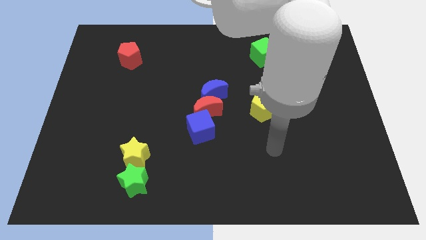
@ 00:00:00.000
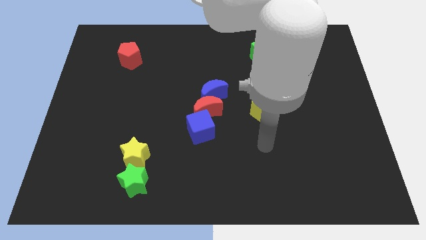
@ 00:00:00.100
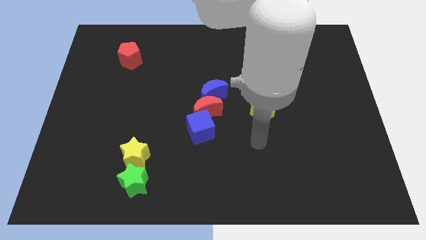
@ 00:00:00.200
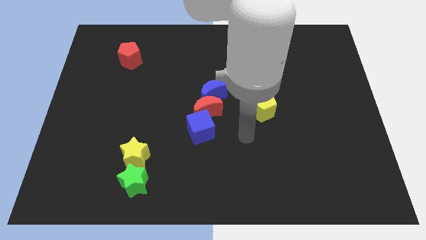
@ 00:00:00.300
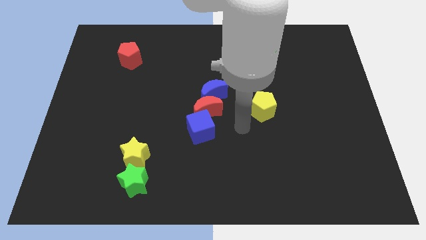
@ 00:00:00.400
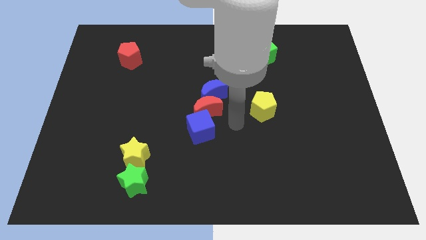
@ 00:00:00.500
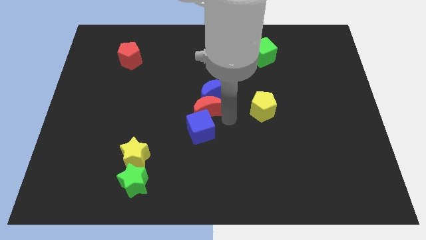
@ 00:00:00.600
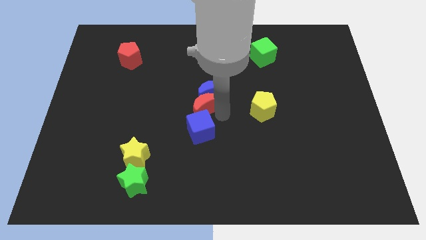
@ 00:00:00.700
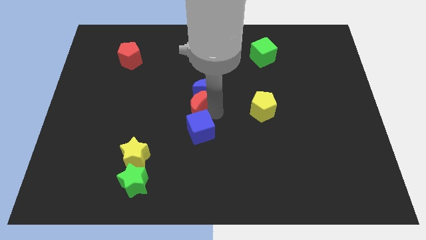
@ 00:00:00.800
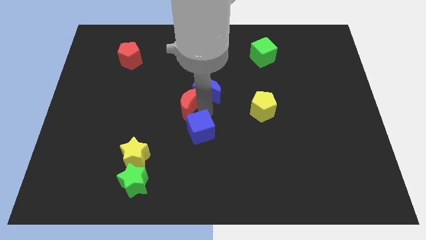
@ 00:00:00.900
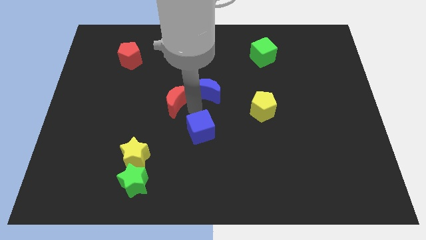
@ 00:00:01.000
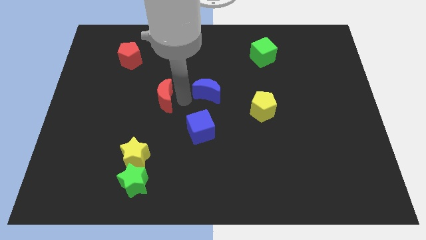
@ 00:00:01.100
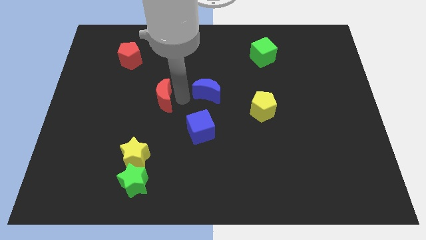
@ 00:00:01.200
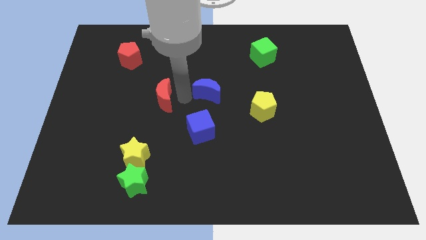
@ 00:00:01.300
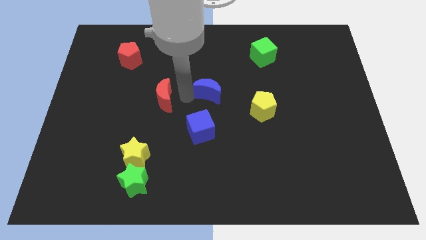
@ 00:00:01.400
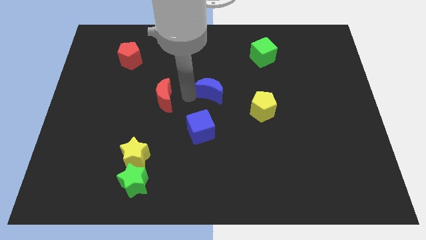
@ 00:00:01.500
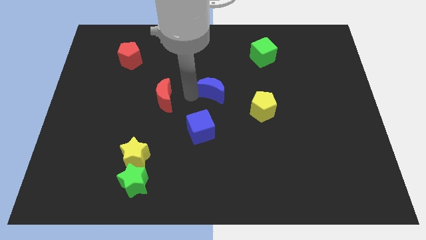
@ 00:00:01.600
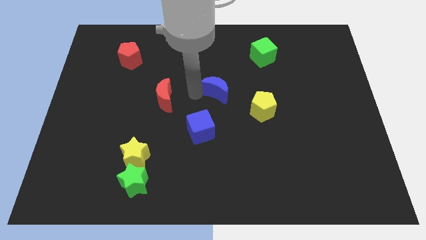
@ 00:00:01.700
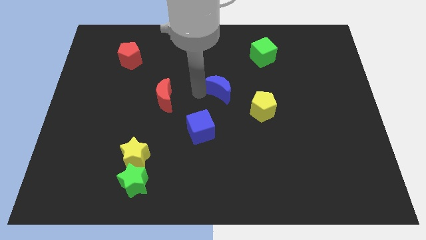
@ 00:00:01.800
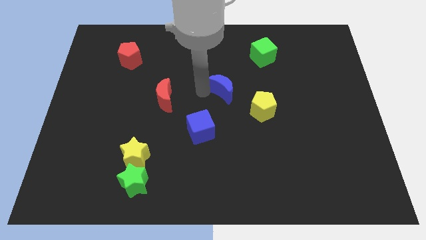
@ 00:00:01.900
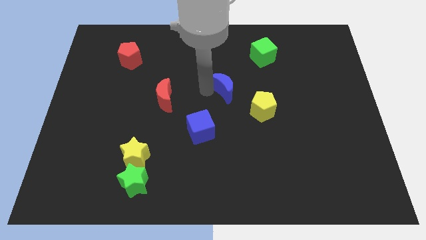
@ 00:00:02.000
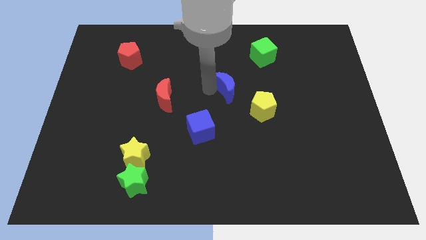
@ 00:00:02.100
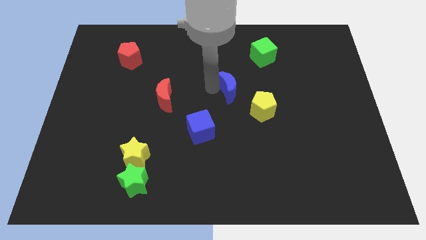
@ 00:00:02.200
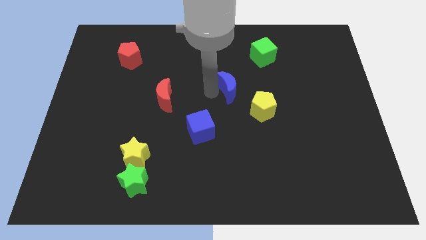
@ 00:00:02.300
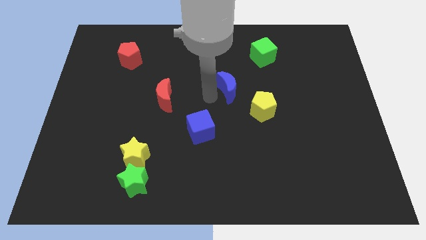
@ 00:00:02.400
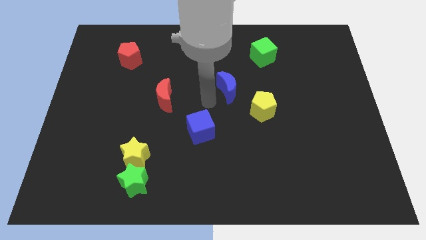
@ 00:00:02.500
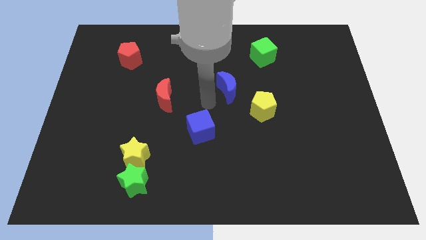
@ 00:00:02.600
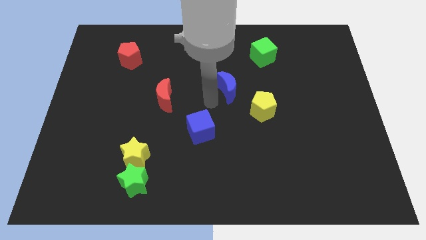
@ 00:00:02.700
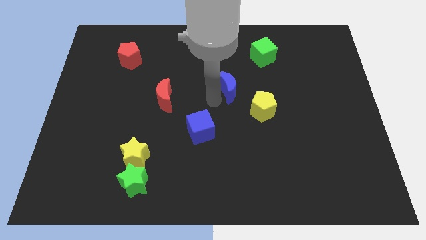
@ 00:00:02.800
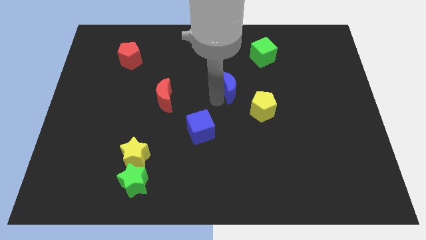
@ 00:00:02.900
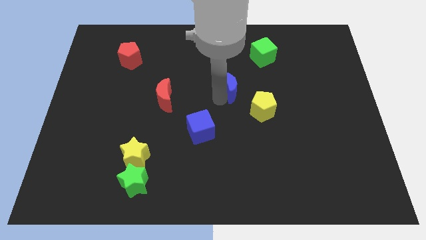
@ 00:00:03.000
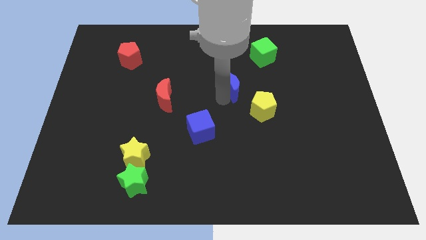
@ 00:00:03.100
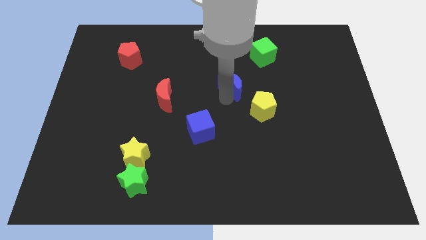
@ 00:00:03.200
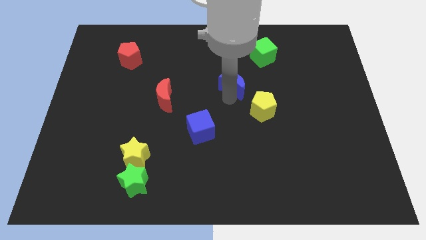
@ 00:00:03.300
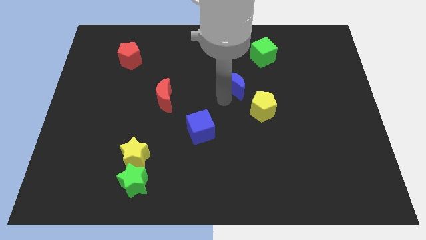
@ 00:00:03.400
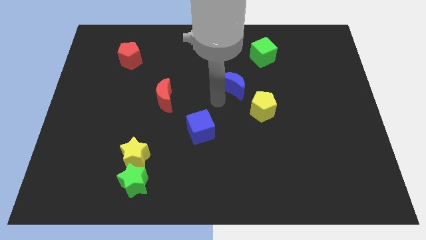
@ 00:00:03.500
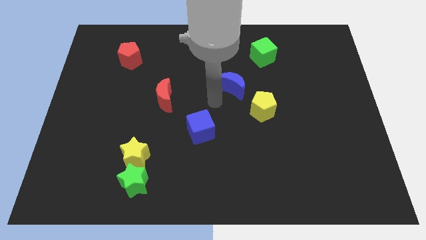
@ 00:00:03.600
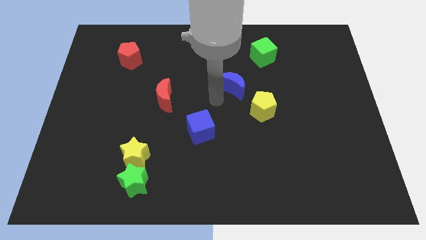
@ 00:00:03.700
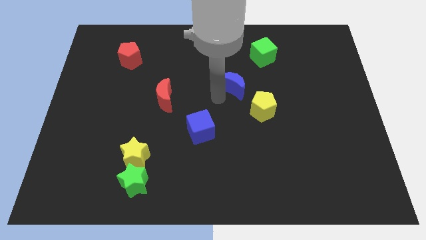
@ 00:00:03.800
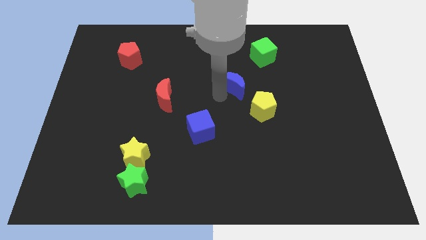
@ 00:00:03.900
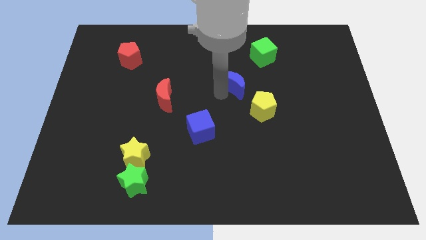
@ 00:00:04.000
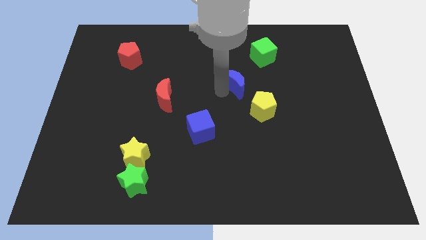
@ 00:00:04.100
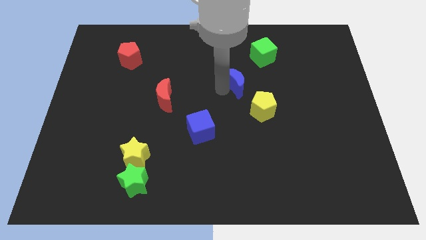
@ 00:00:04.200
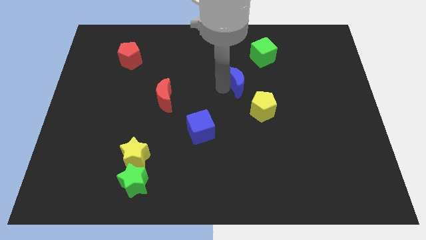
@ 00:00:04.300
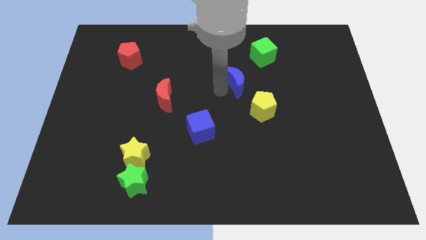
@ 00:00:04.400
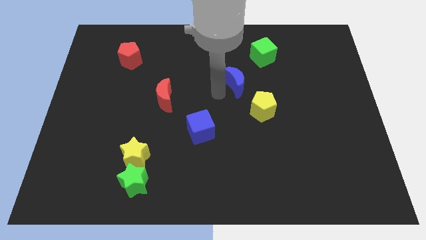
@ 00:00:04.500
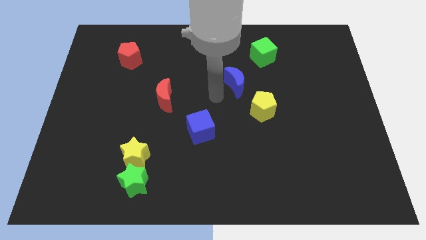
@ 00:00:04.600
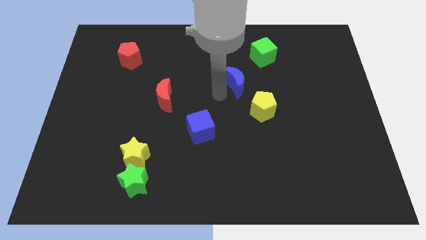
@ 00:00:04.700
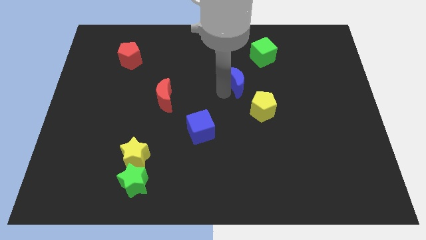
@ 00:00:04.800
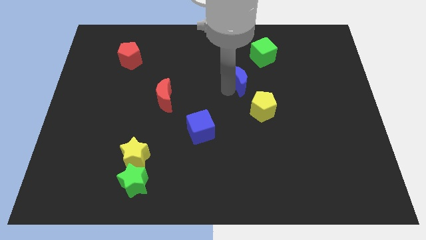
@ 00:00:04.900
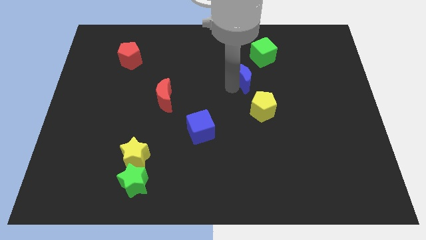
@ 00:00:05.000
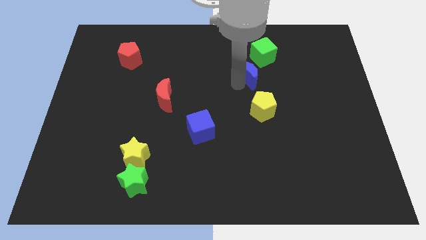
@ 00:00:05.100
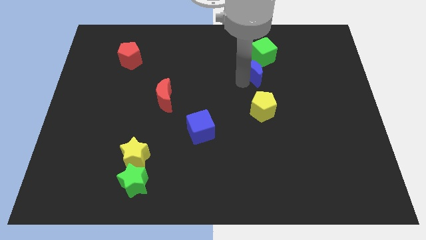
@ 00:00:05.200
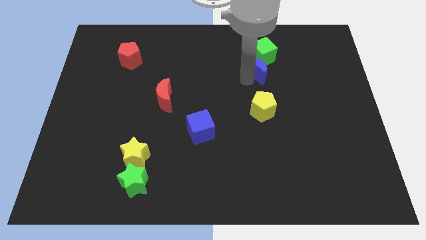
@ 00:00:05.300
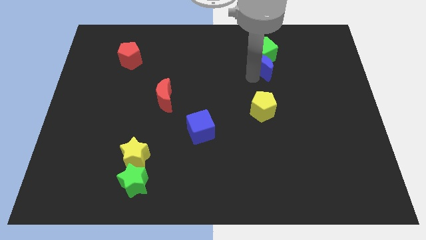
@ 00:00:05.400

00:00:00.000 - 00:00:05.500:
push the blue moon towards the green cube

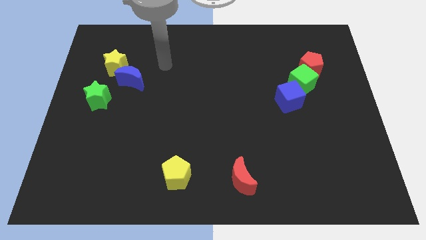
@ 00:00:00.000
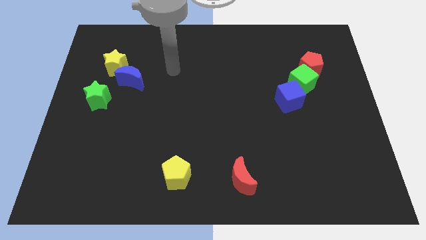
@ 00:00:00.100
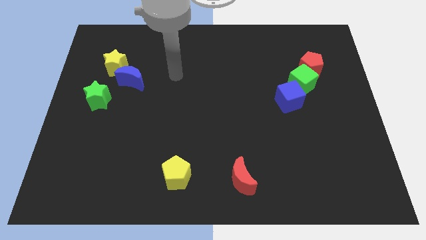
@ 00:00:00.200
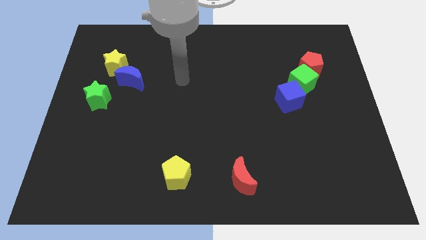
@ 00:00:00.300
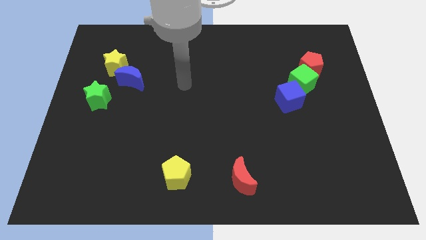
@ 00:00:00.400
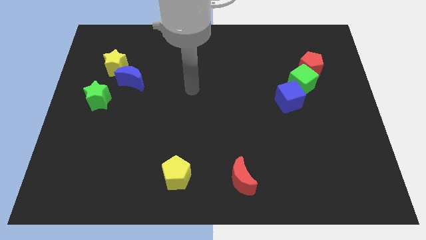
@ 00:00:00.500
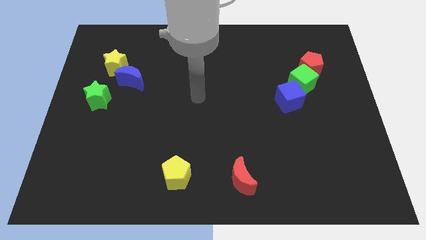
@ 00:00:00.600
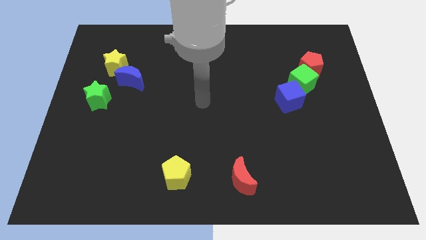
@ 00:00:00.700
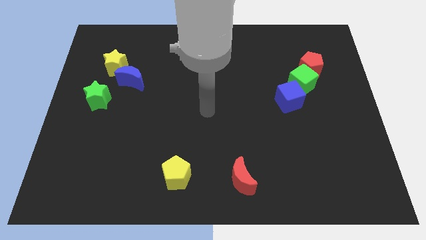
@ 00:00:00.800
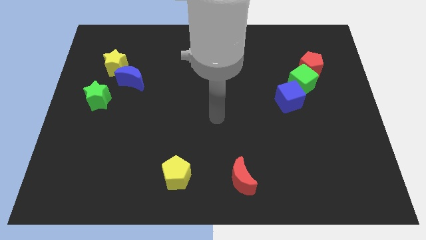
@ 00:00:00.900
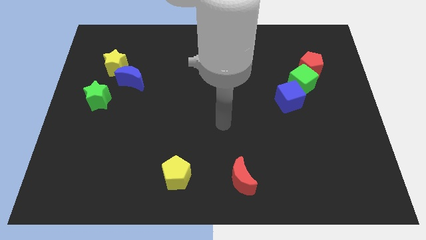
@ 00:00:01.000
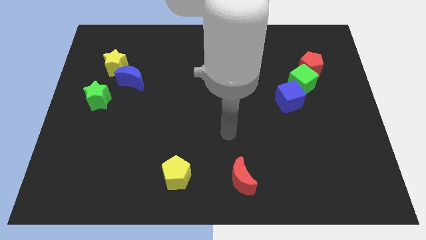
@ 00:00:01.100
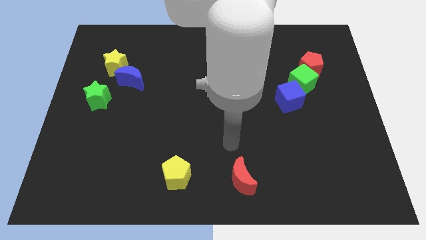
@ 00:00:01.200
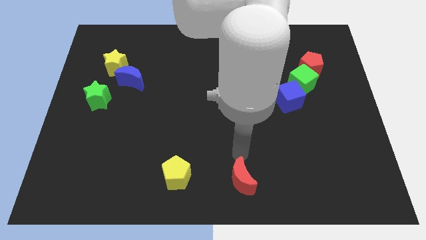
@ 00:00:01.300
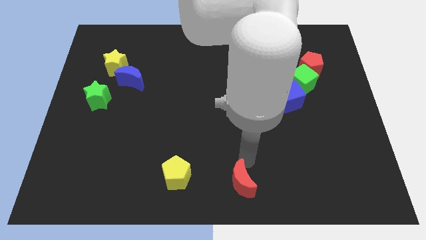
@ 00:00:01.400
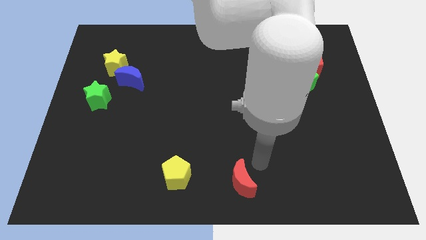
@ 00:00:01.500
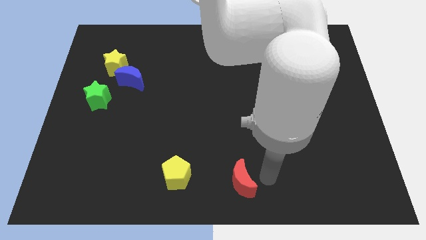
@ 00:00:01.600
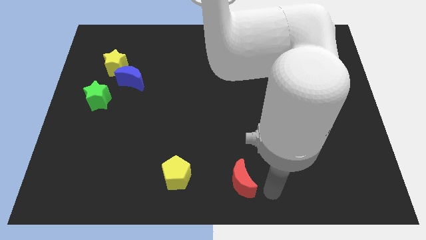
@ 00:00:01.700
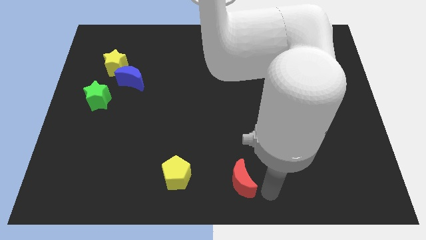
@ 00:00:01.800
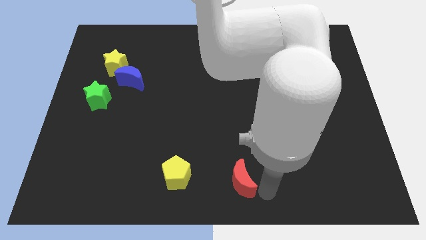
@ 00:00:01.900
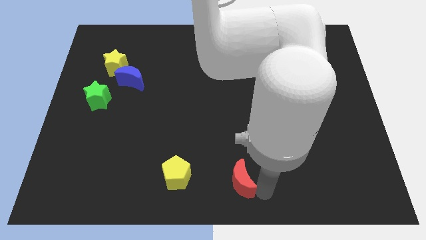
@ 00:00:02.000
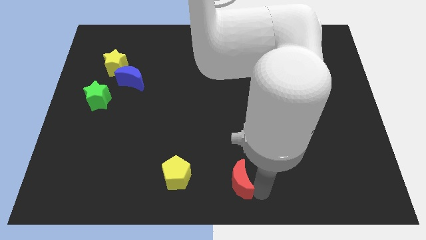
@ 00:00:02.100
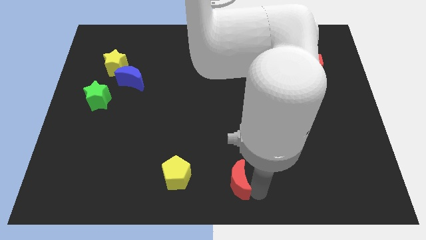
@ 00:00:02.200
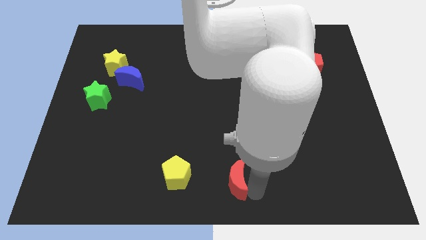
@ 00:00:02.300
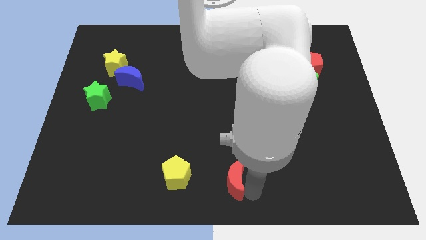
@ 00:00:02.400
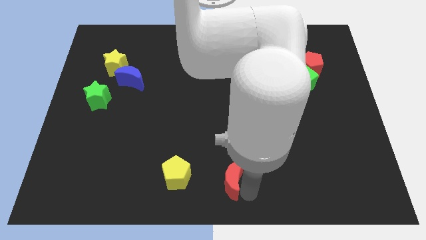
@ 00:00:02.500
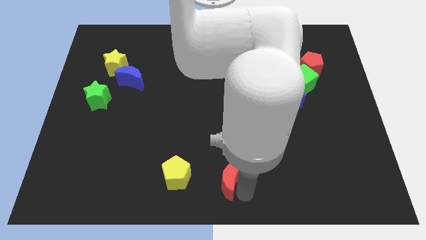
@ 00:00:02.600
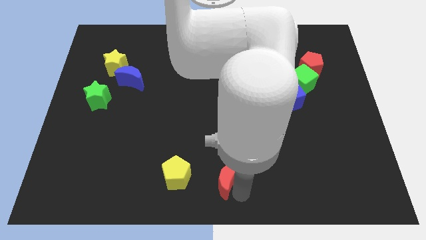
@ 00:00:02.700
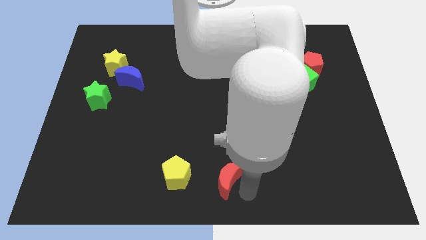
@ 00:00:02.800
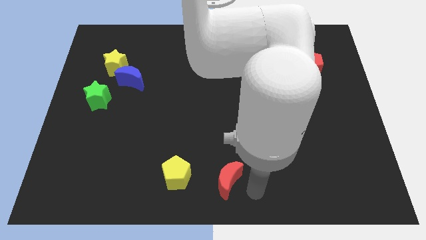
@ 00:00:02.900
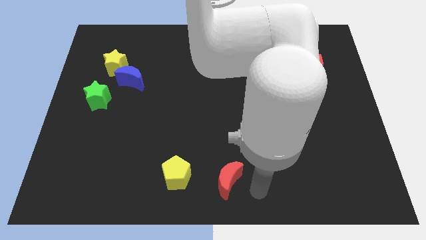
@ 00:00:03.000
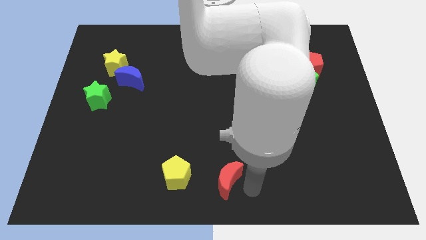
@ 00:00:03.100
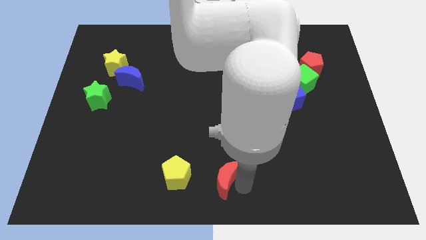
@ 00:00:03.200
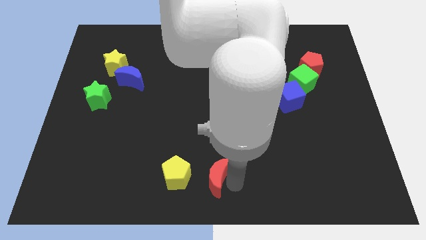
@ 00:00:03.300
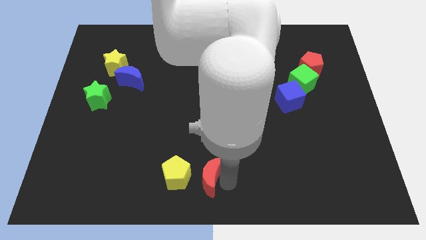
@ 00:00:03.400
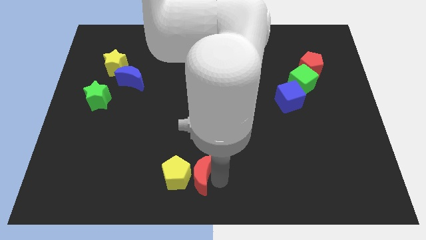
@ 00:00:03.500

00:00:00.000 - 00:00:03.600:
slide the red moon towards the yellow pentagon
